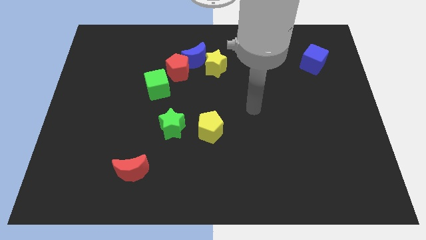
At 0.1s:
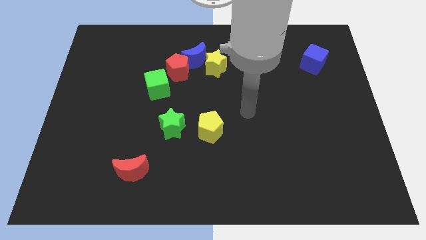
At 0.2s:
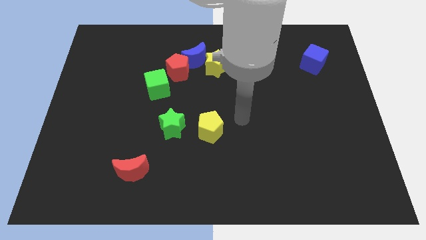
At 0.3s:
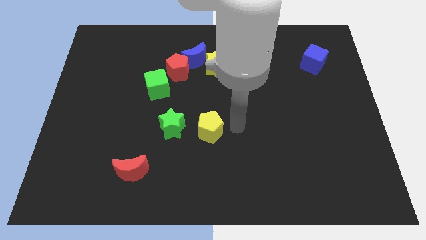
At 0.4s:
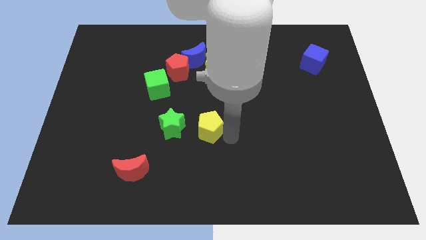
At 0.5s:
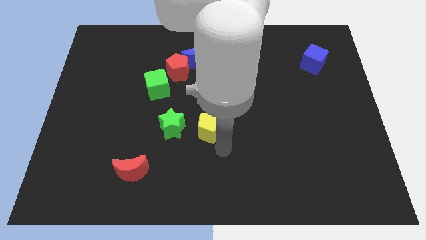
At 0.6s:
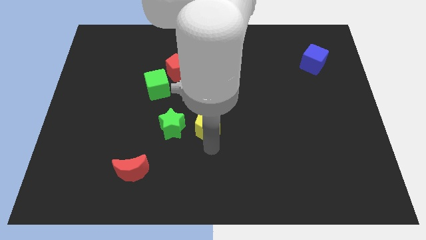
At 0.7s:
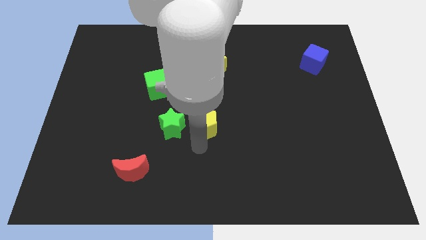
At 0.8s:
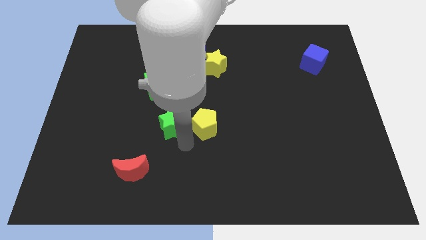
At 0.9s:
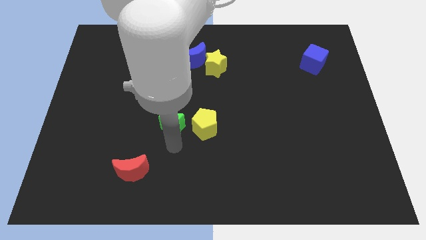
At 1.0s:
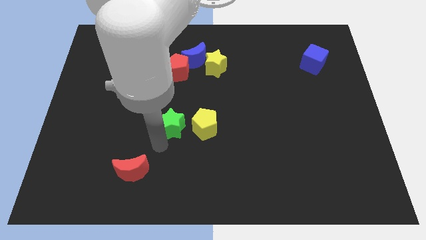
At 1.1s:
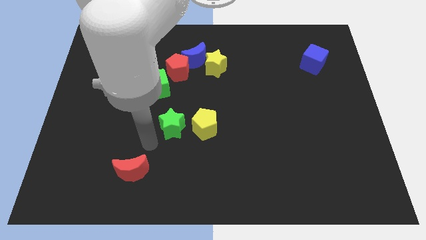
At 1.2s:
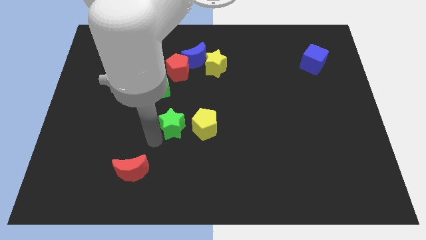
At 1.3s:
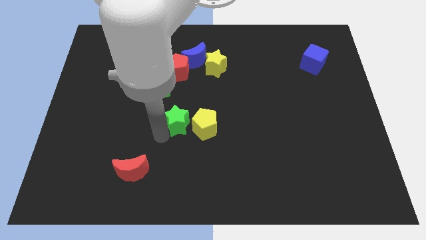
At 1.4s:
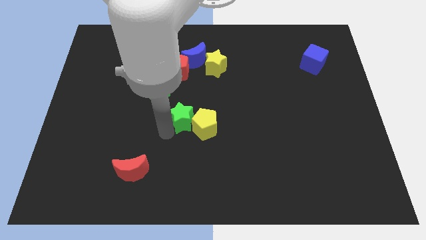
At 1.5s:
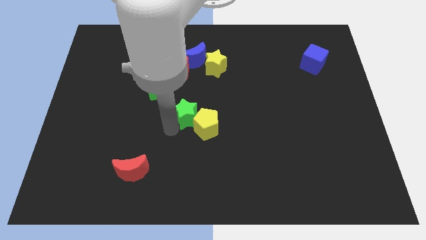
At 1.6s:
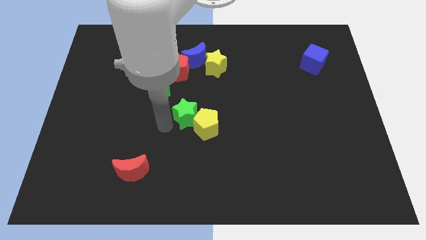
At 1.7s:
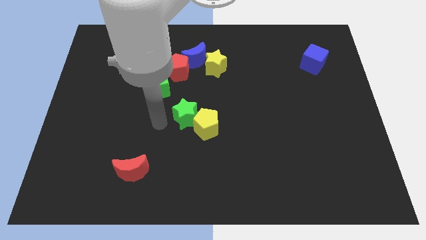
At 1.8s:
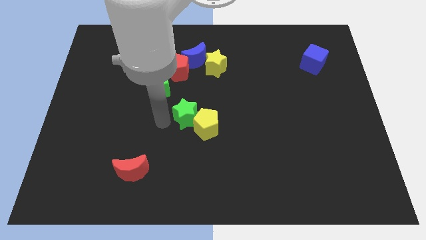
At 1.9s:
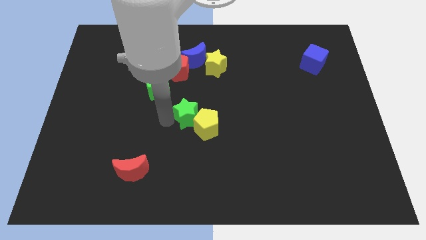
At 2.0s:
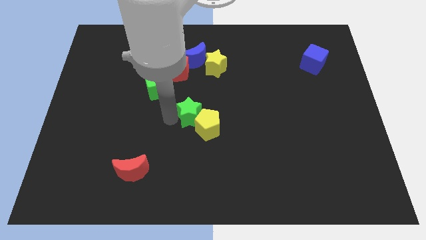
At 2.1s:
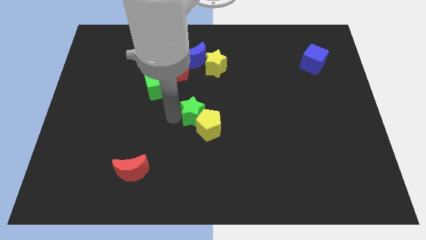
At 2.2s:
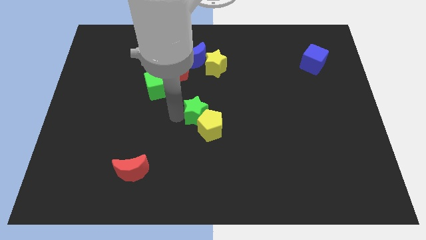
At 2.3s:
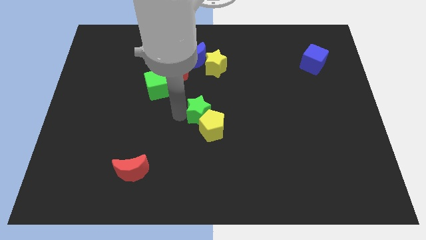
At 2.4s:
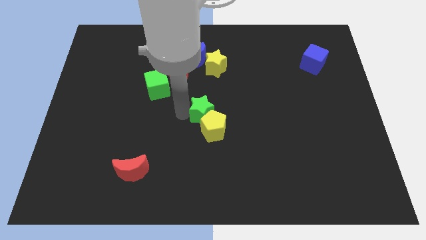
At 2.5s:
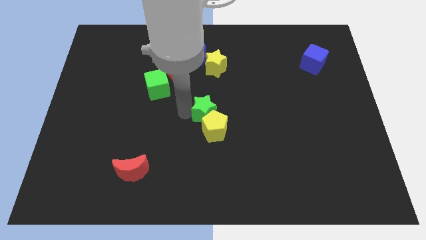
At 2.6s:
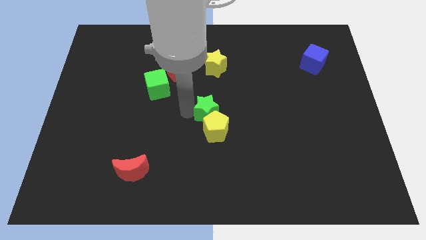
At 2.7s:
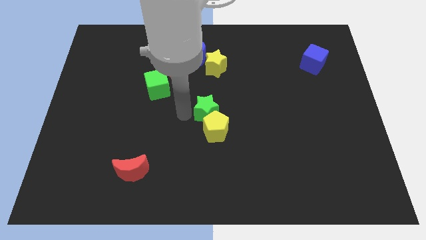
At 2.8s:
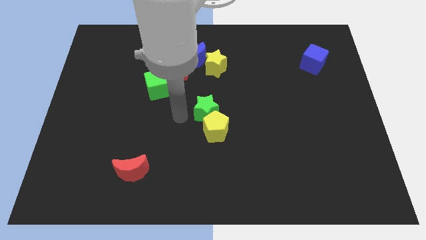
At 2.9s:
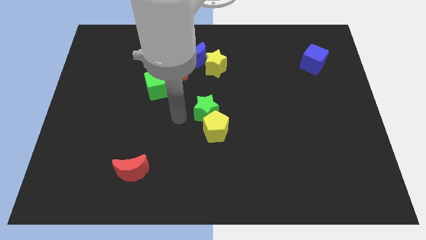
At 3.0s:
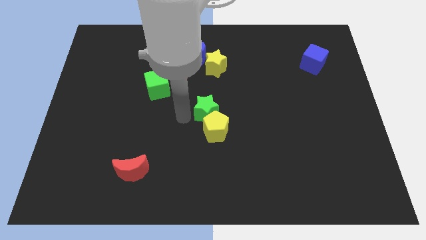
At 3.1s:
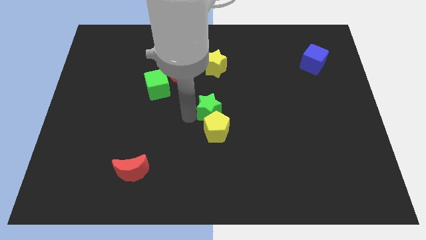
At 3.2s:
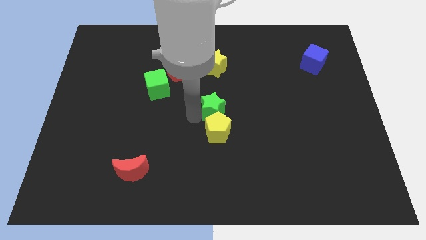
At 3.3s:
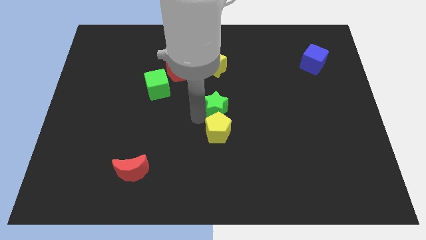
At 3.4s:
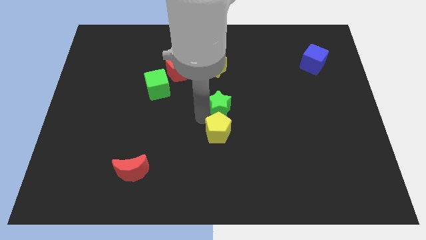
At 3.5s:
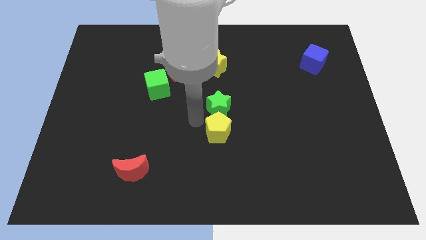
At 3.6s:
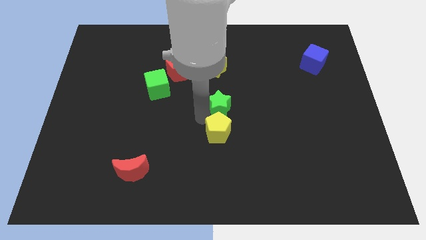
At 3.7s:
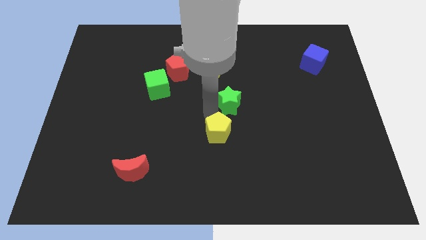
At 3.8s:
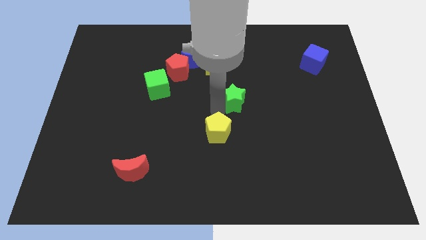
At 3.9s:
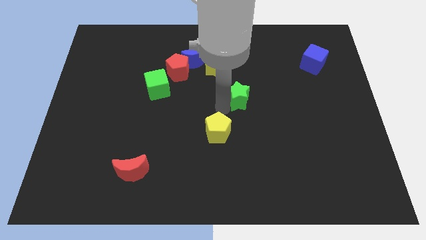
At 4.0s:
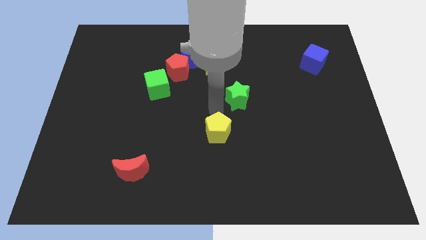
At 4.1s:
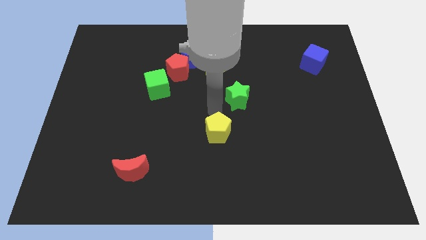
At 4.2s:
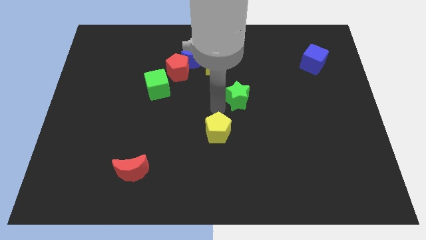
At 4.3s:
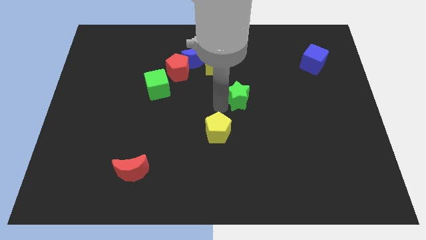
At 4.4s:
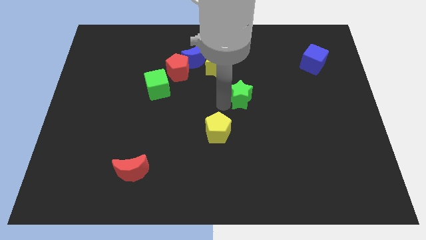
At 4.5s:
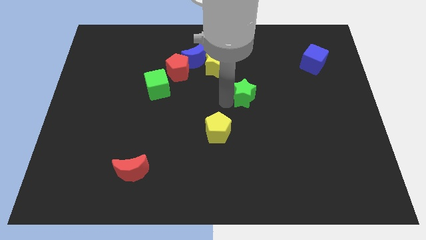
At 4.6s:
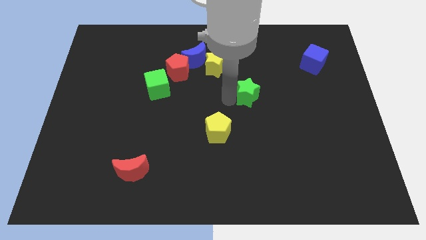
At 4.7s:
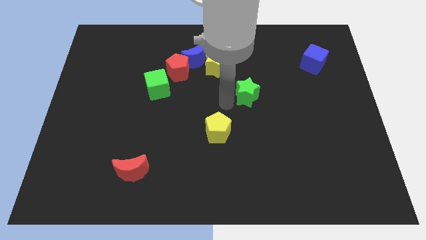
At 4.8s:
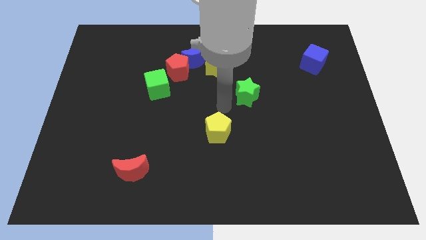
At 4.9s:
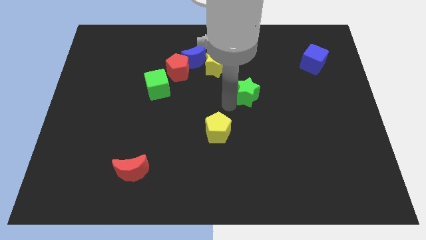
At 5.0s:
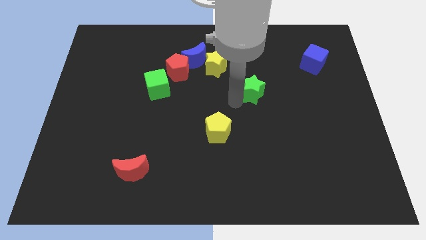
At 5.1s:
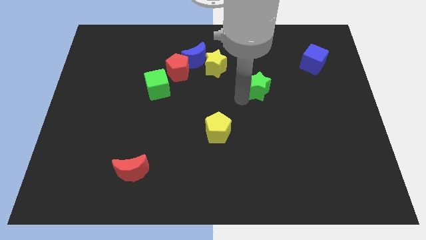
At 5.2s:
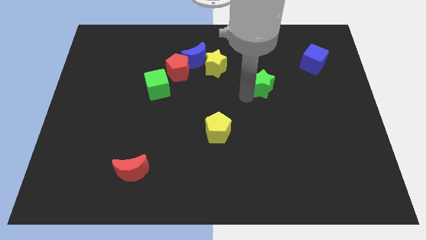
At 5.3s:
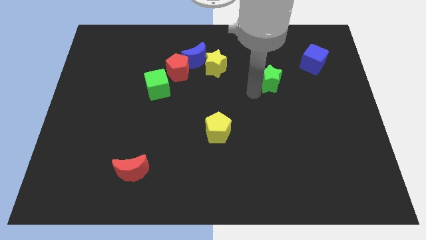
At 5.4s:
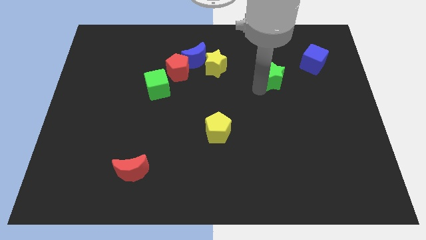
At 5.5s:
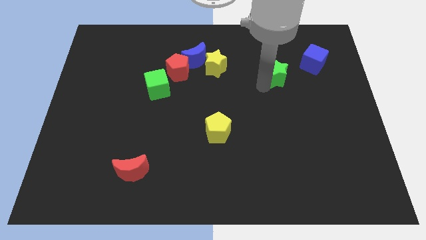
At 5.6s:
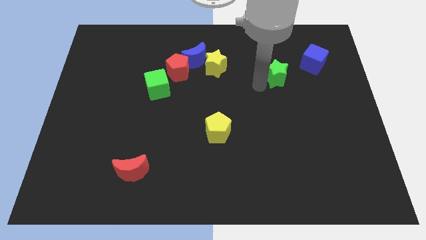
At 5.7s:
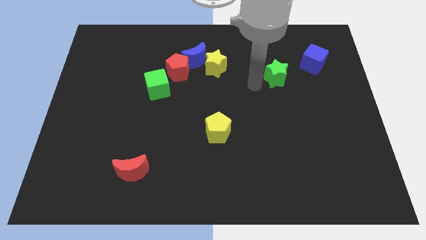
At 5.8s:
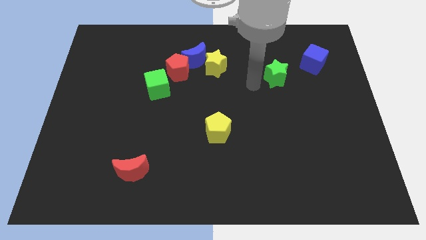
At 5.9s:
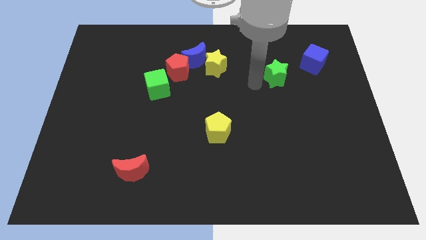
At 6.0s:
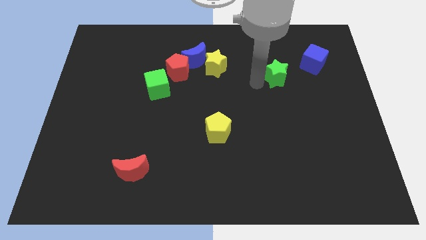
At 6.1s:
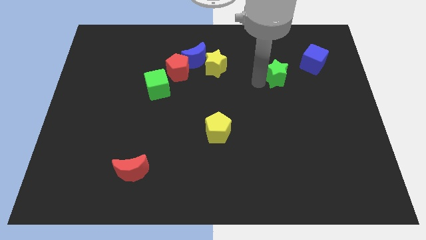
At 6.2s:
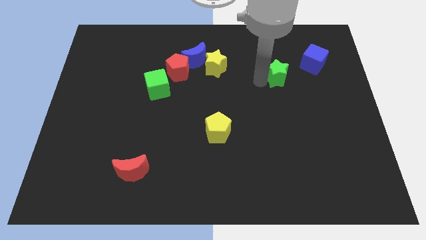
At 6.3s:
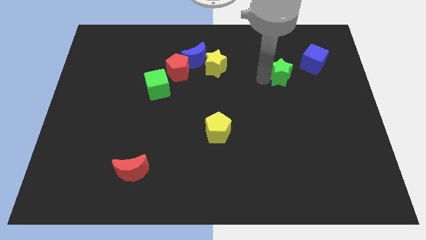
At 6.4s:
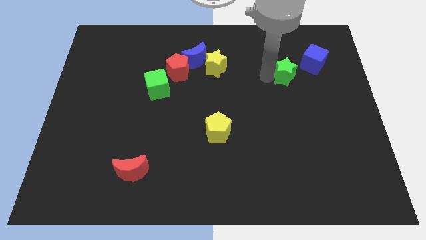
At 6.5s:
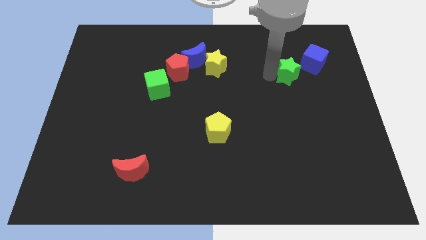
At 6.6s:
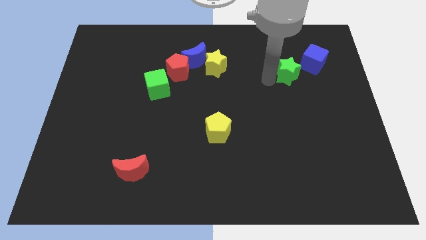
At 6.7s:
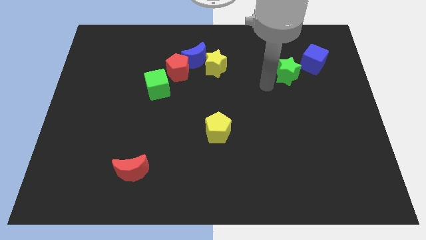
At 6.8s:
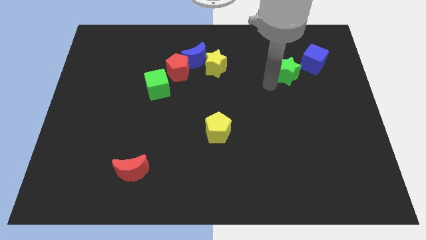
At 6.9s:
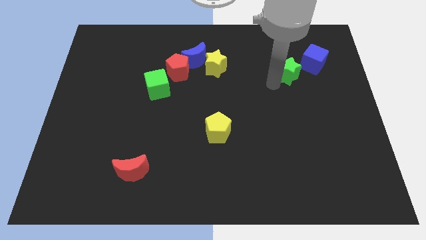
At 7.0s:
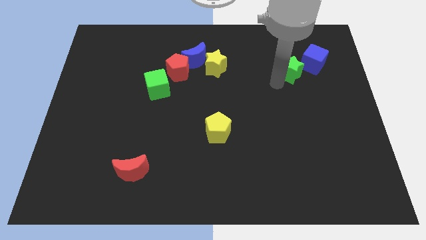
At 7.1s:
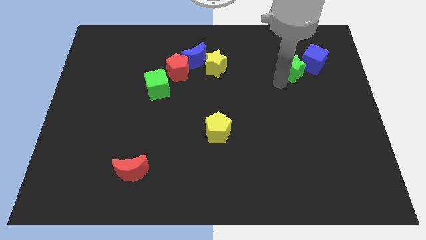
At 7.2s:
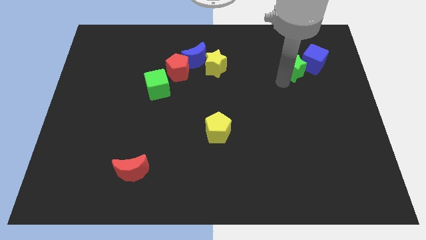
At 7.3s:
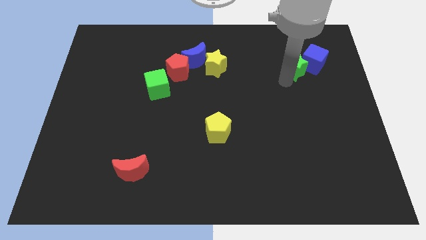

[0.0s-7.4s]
put the green star to the blue cube

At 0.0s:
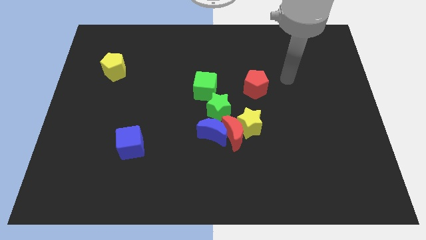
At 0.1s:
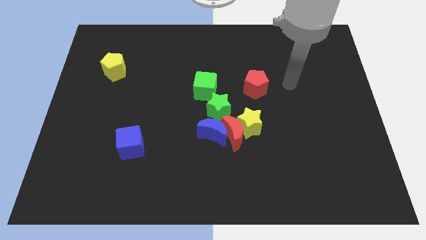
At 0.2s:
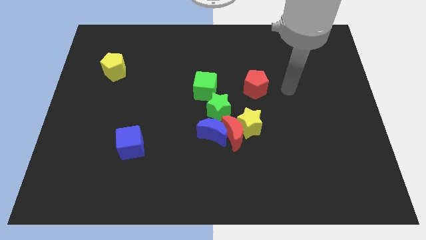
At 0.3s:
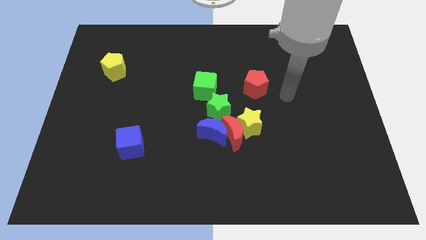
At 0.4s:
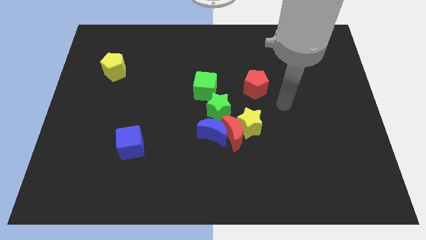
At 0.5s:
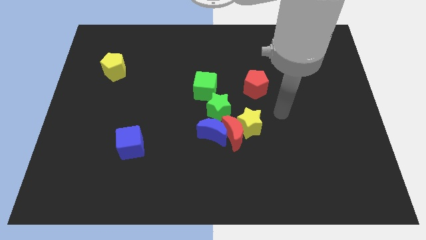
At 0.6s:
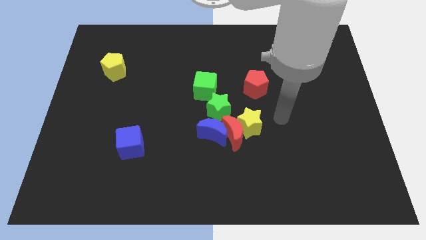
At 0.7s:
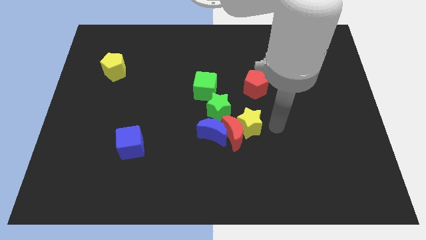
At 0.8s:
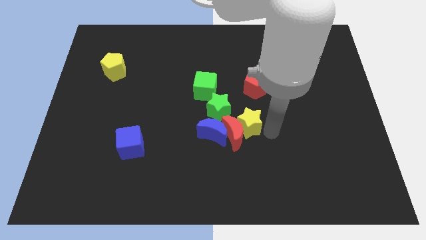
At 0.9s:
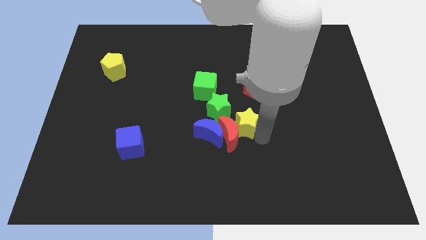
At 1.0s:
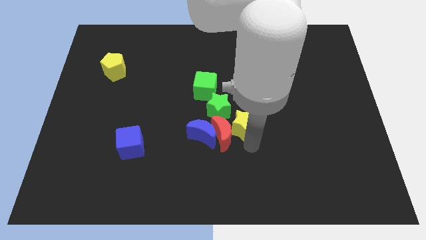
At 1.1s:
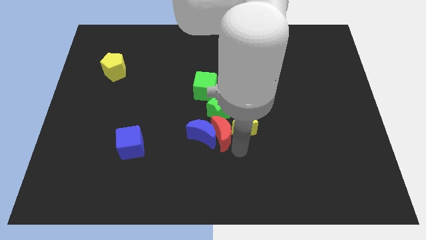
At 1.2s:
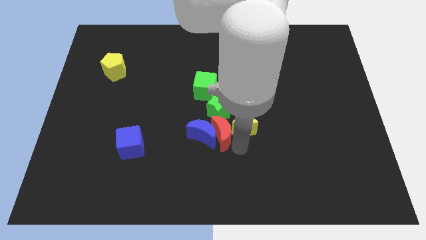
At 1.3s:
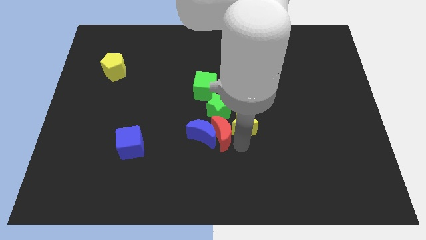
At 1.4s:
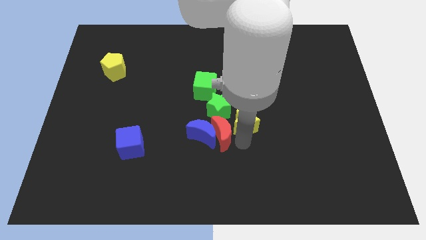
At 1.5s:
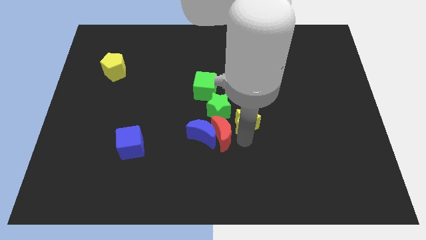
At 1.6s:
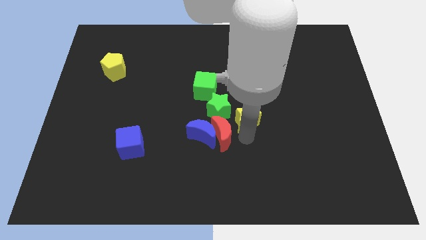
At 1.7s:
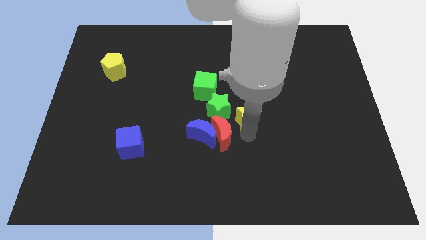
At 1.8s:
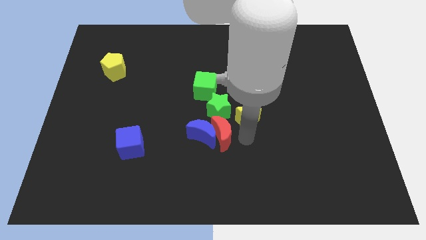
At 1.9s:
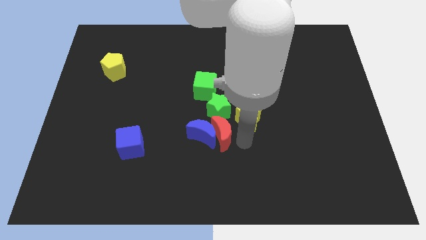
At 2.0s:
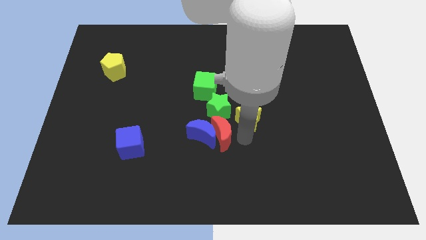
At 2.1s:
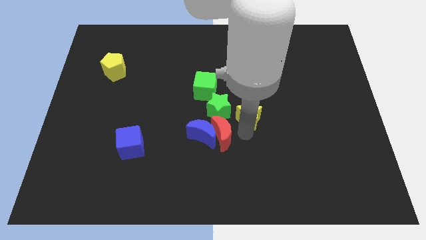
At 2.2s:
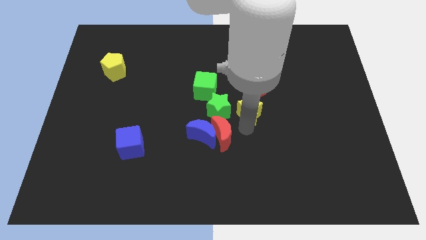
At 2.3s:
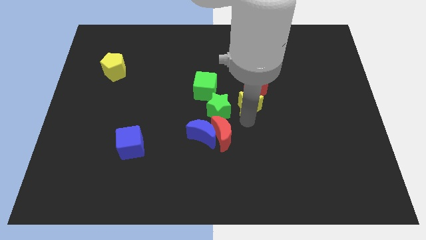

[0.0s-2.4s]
move the yellow star next to the red pentagon
